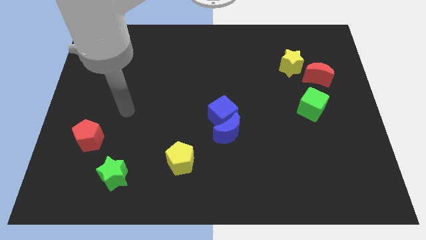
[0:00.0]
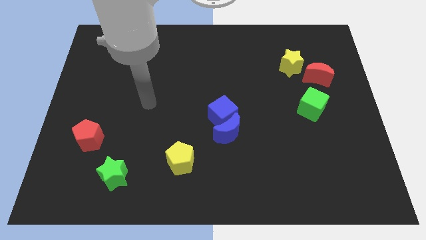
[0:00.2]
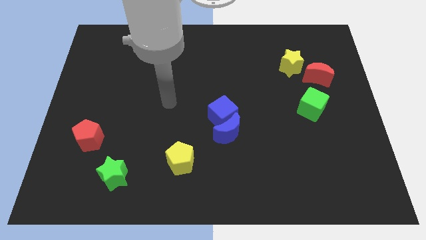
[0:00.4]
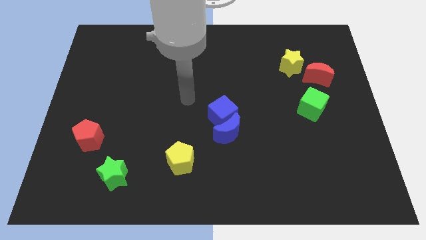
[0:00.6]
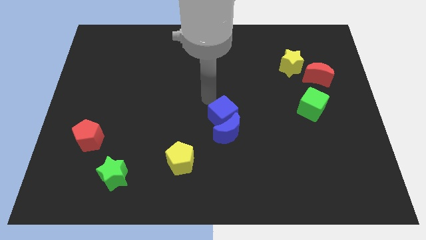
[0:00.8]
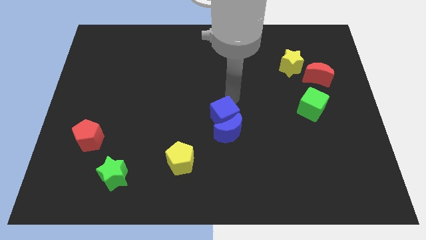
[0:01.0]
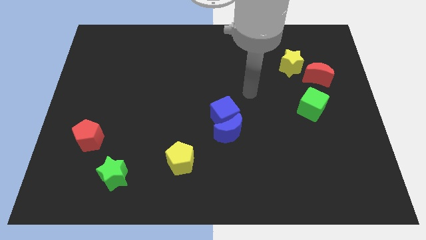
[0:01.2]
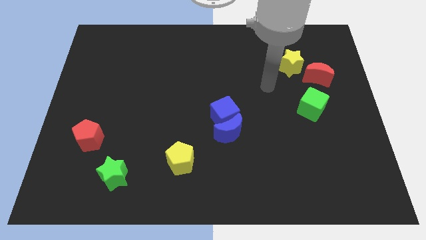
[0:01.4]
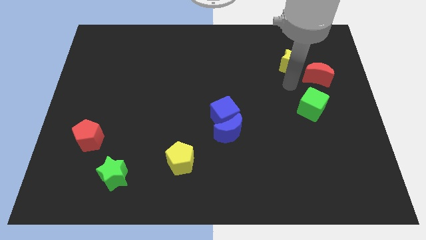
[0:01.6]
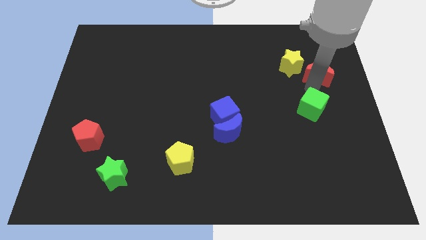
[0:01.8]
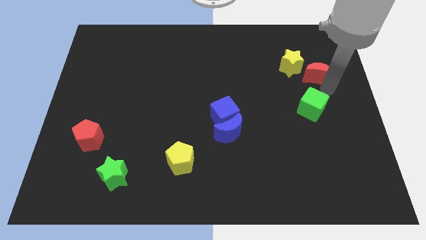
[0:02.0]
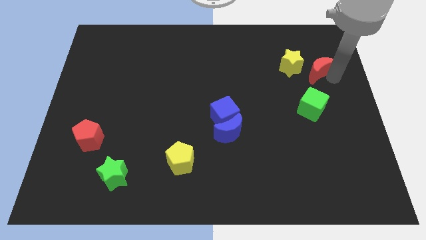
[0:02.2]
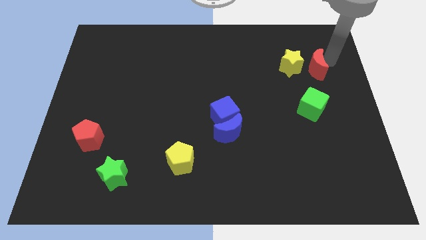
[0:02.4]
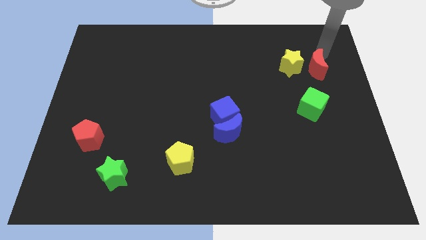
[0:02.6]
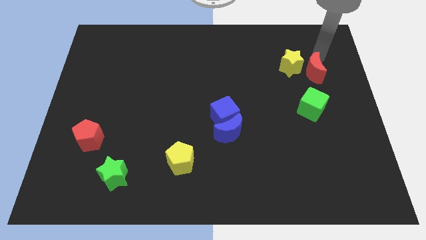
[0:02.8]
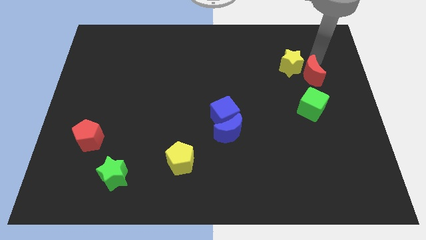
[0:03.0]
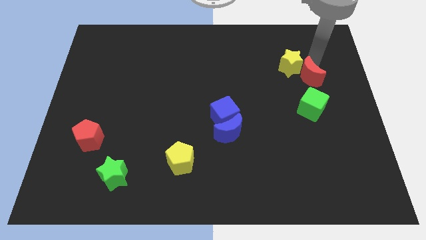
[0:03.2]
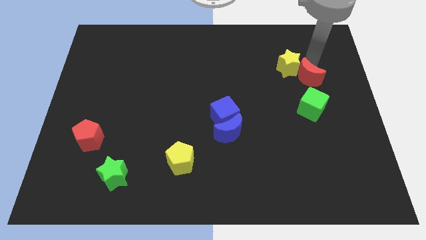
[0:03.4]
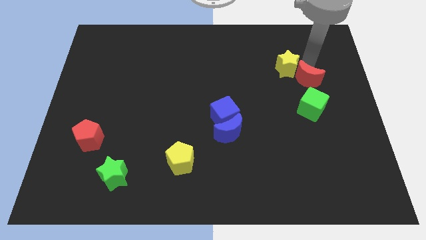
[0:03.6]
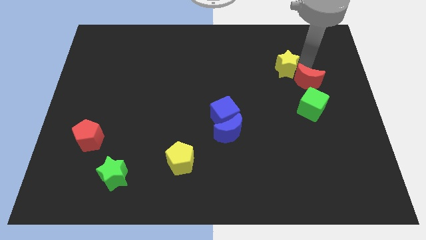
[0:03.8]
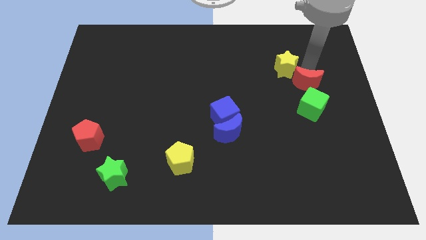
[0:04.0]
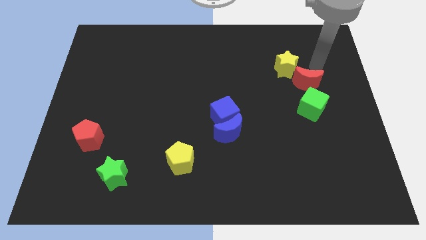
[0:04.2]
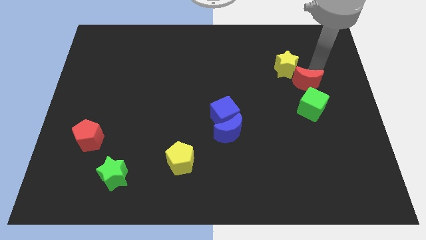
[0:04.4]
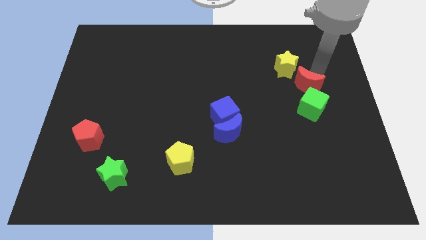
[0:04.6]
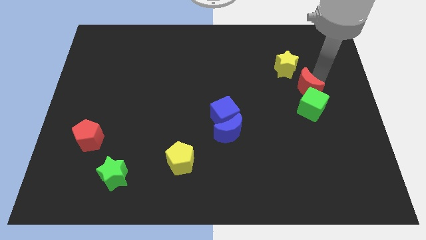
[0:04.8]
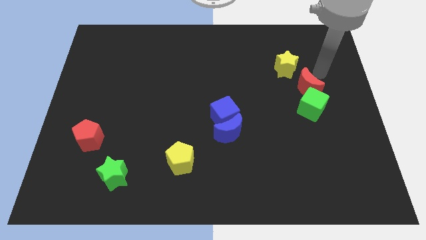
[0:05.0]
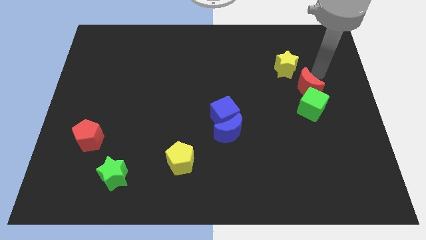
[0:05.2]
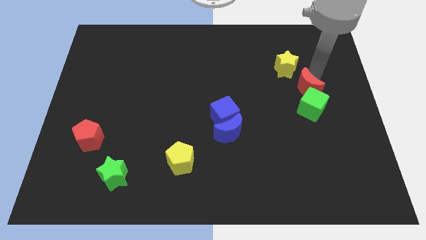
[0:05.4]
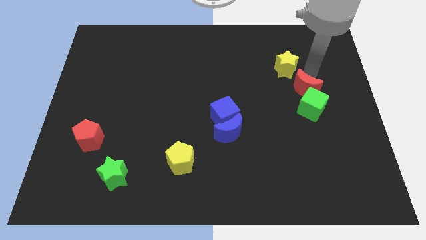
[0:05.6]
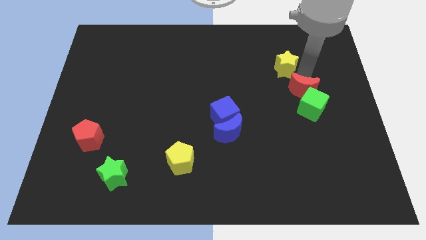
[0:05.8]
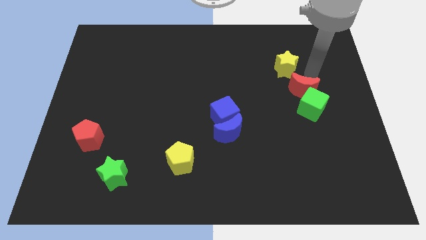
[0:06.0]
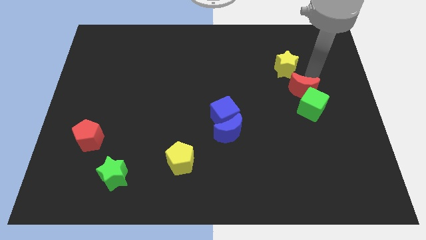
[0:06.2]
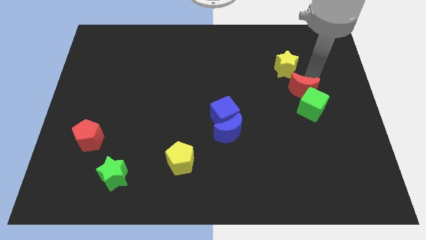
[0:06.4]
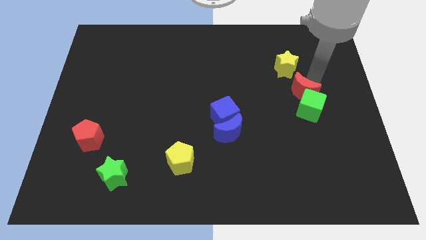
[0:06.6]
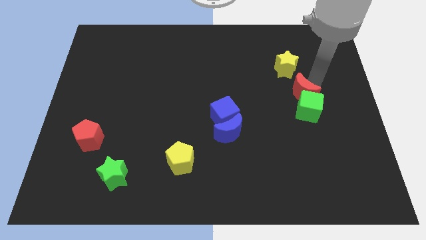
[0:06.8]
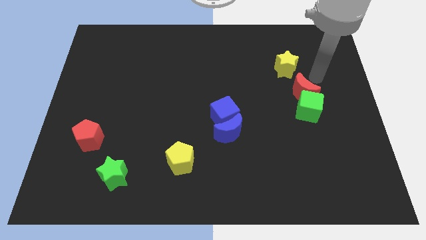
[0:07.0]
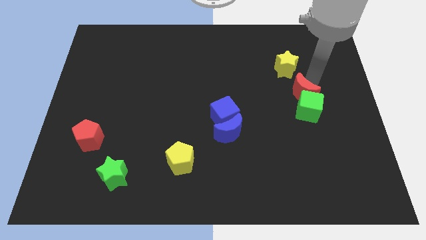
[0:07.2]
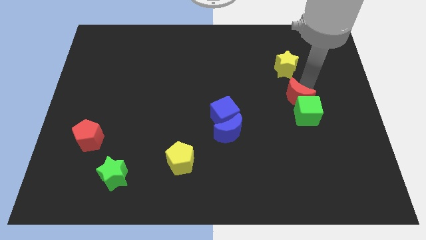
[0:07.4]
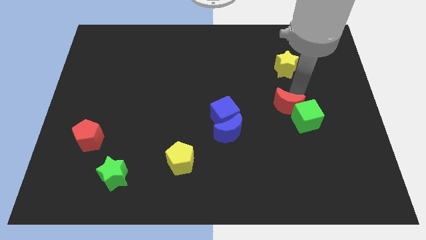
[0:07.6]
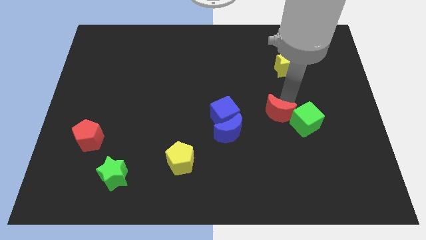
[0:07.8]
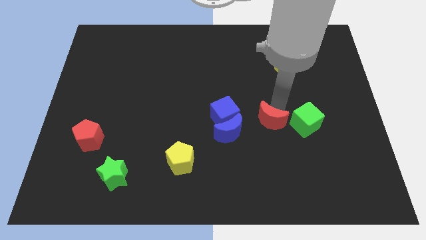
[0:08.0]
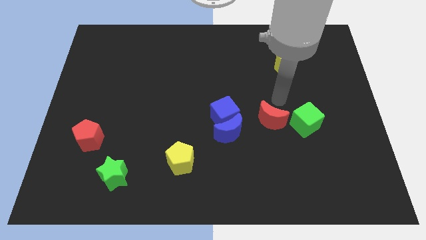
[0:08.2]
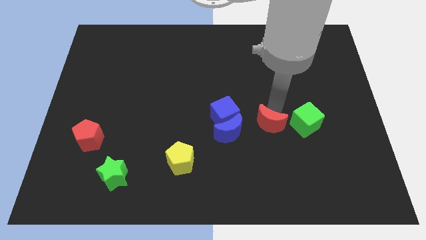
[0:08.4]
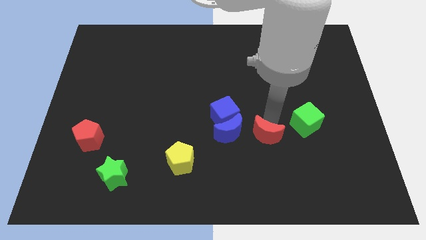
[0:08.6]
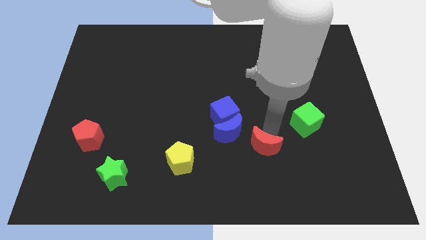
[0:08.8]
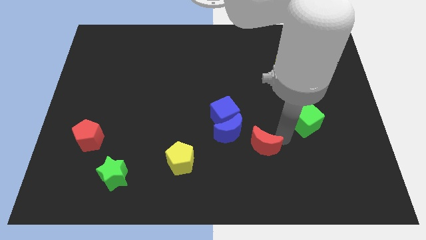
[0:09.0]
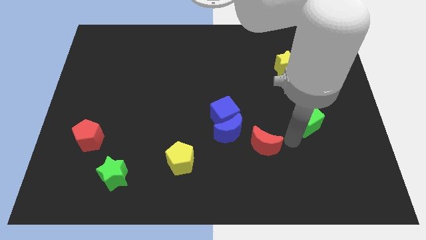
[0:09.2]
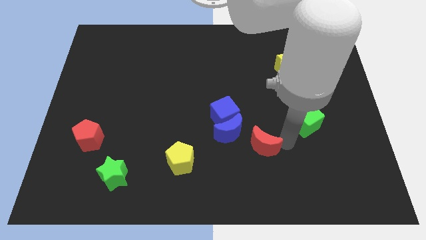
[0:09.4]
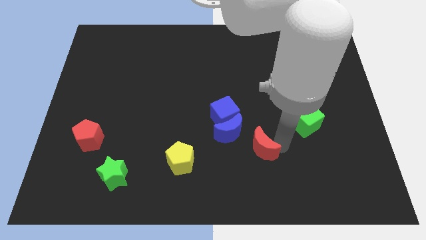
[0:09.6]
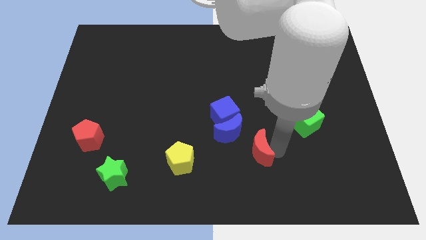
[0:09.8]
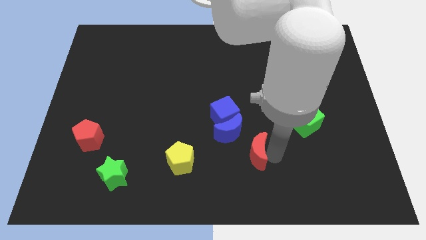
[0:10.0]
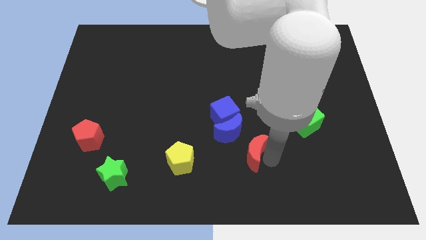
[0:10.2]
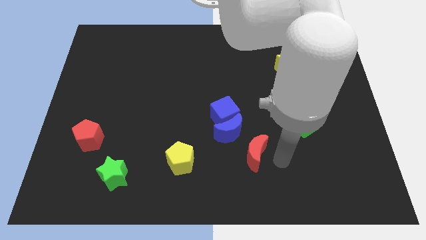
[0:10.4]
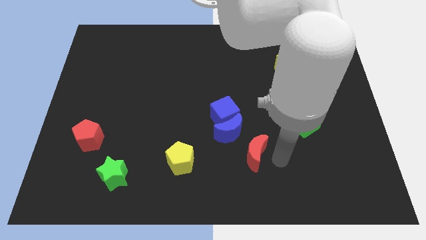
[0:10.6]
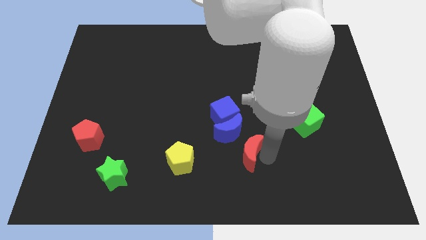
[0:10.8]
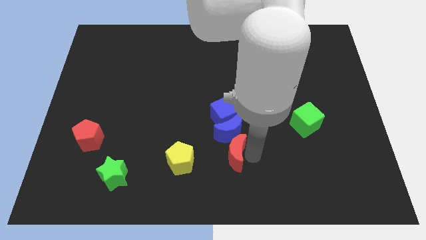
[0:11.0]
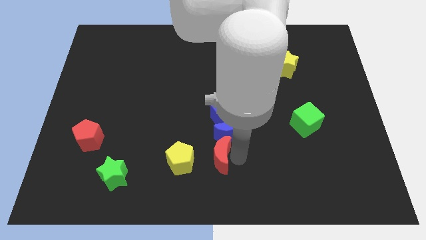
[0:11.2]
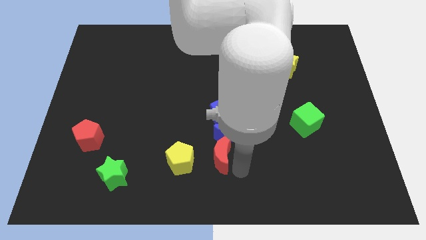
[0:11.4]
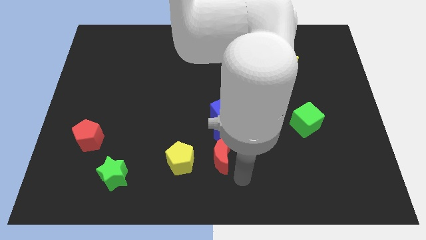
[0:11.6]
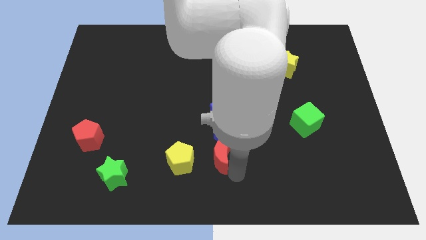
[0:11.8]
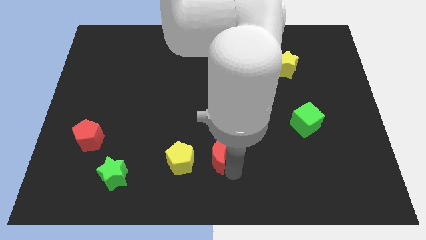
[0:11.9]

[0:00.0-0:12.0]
slide the red moon to the top right of the yellow pentagon
